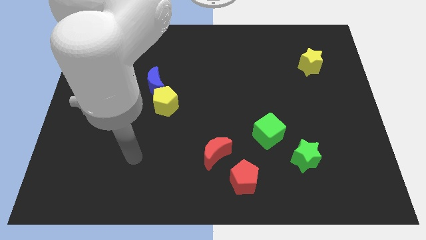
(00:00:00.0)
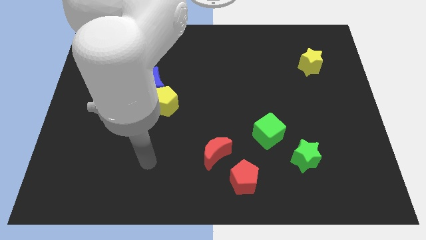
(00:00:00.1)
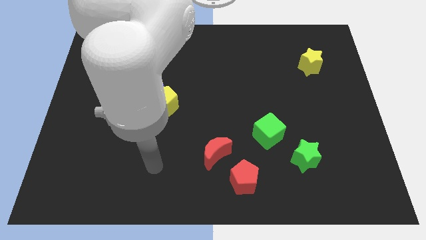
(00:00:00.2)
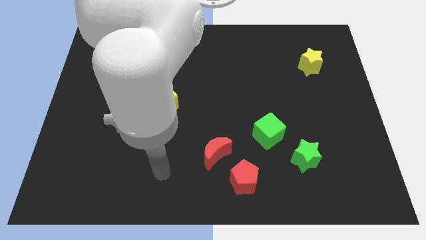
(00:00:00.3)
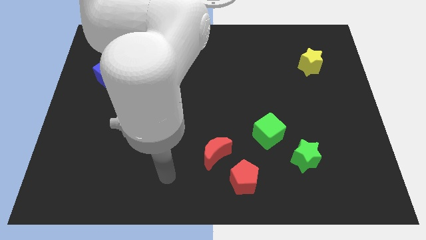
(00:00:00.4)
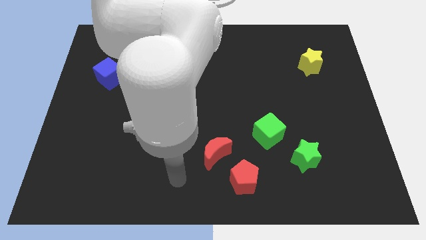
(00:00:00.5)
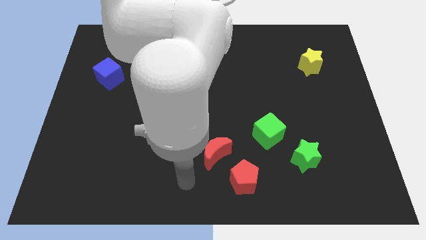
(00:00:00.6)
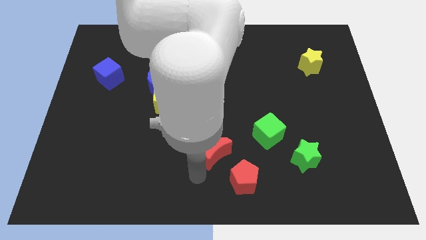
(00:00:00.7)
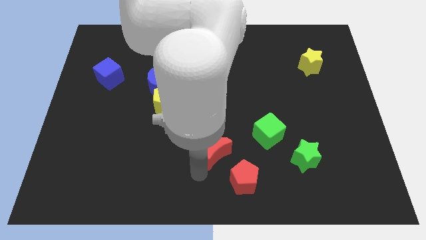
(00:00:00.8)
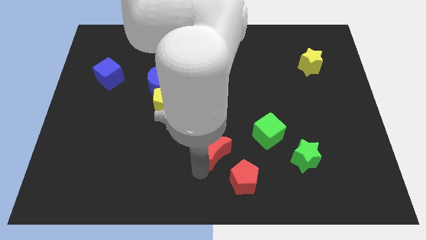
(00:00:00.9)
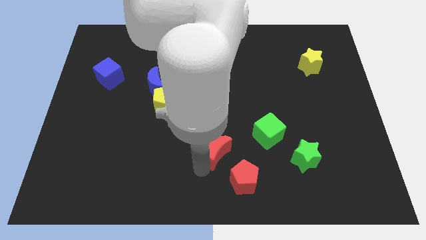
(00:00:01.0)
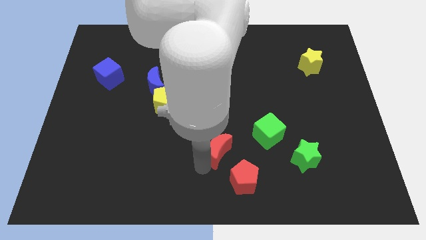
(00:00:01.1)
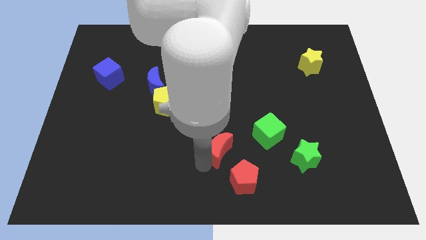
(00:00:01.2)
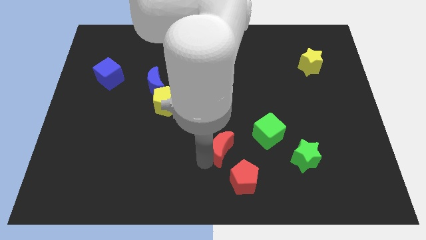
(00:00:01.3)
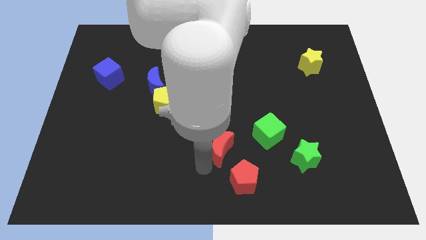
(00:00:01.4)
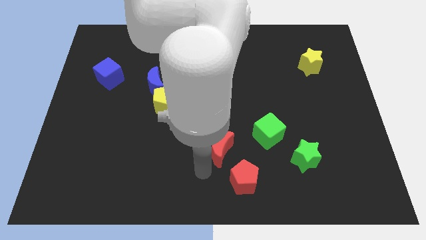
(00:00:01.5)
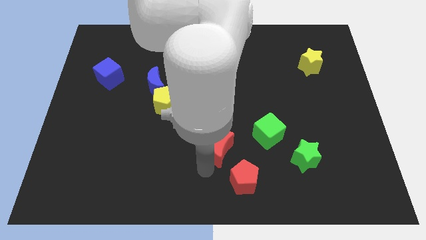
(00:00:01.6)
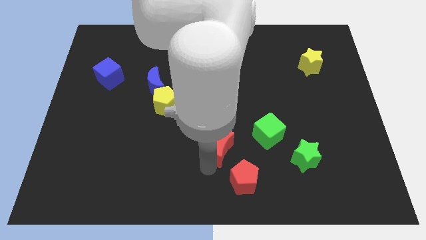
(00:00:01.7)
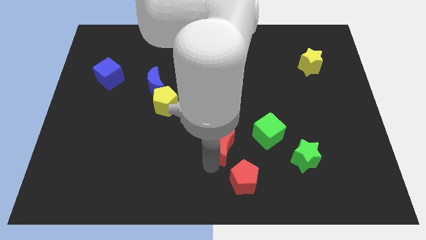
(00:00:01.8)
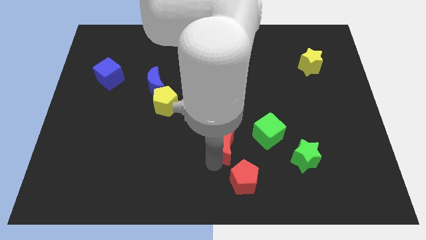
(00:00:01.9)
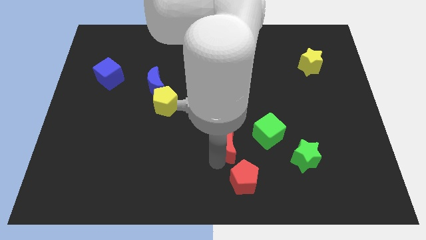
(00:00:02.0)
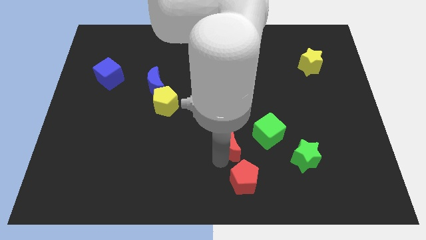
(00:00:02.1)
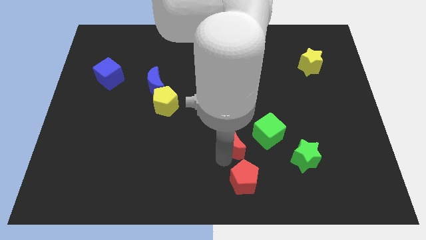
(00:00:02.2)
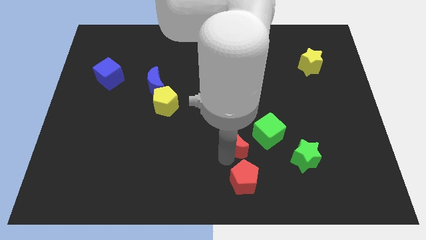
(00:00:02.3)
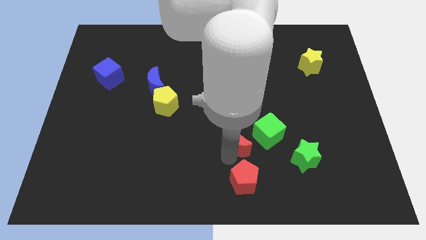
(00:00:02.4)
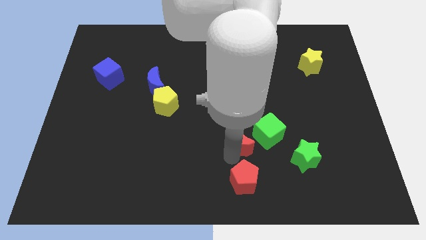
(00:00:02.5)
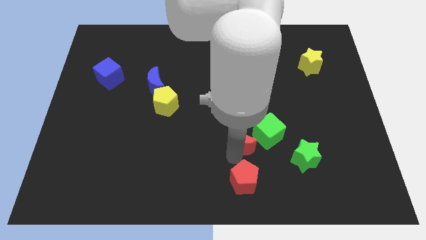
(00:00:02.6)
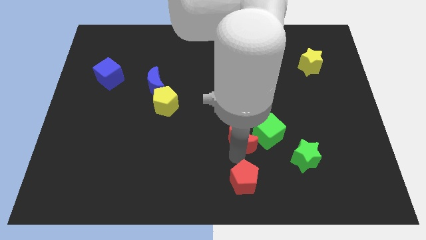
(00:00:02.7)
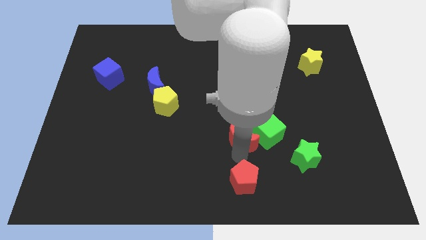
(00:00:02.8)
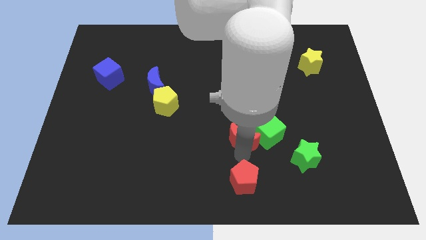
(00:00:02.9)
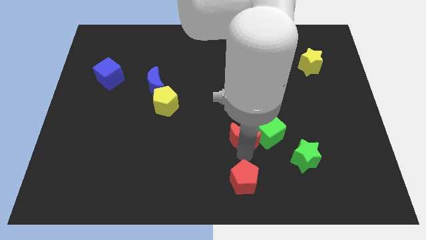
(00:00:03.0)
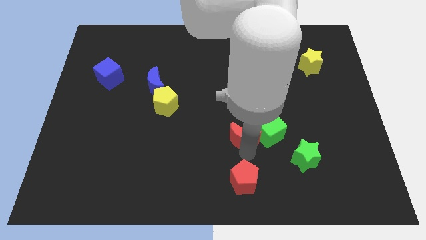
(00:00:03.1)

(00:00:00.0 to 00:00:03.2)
move the red moon upwards and then to the right a little bit

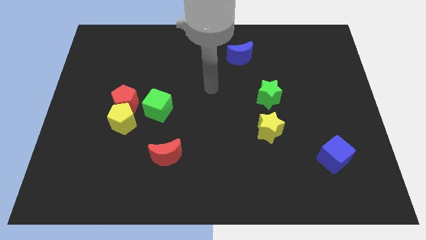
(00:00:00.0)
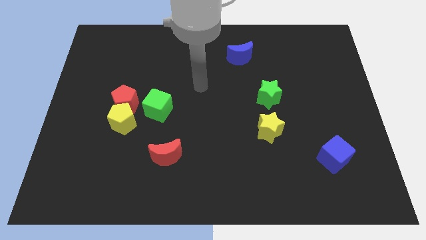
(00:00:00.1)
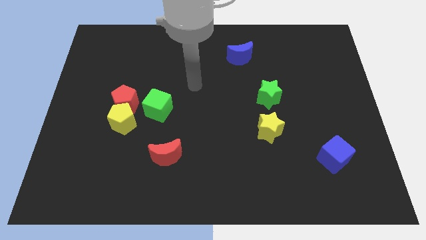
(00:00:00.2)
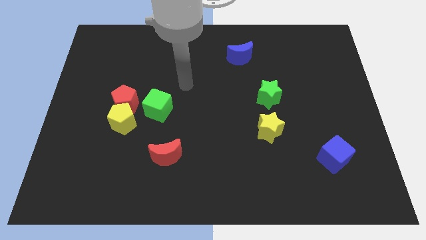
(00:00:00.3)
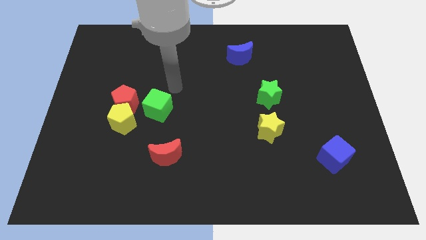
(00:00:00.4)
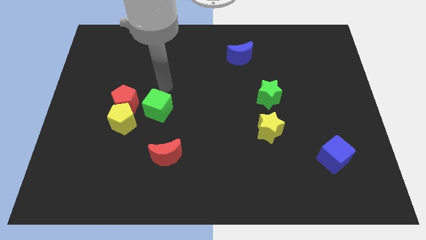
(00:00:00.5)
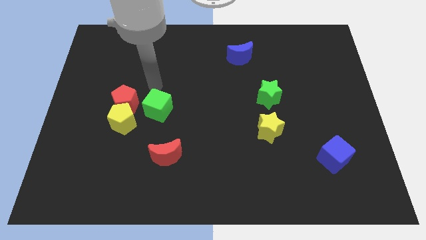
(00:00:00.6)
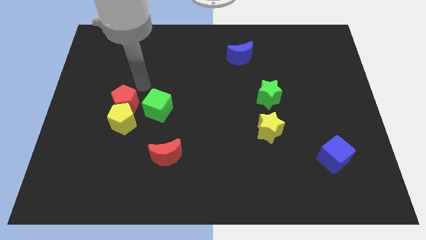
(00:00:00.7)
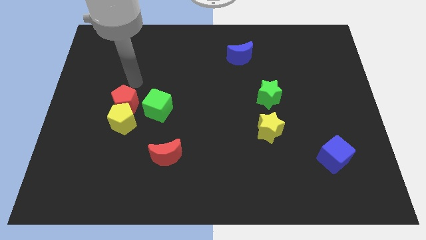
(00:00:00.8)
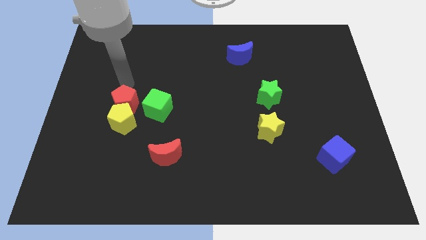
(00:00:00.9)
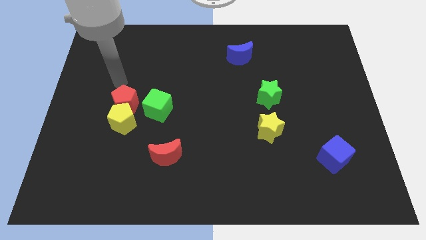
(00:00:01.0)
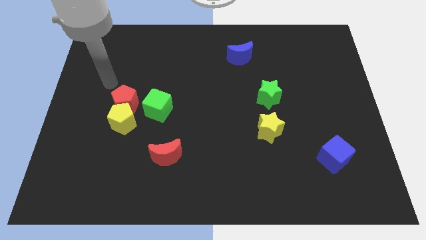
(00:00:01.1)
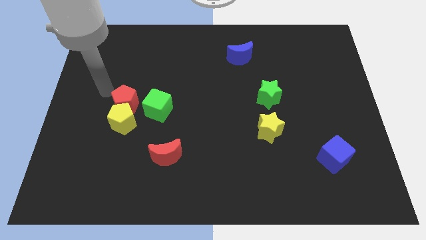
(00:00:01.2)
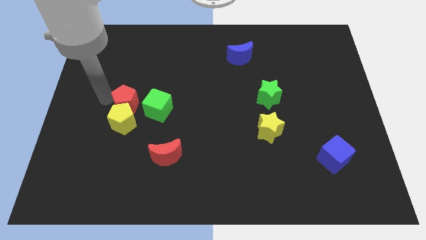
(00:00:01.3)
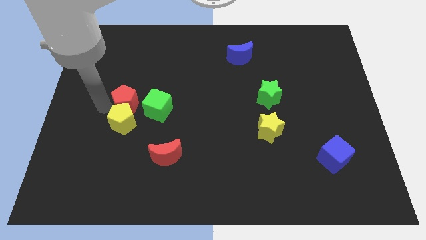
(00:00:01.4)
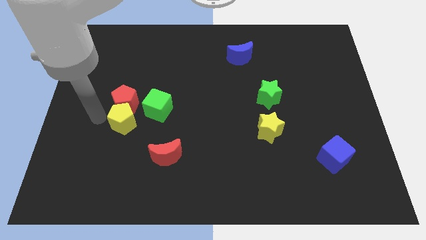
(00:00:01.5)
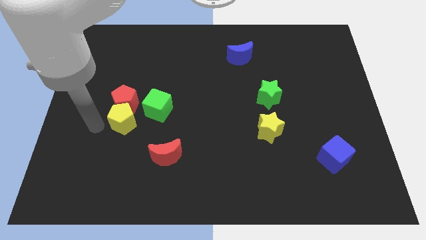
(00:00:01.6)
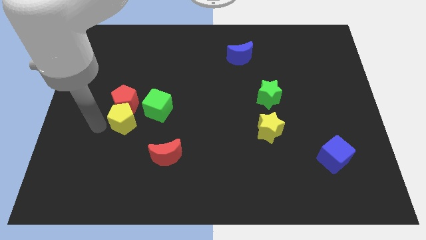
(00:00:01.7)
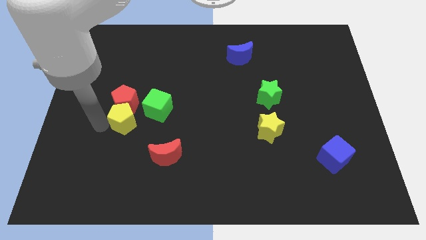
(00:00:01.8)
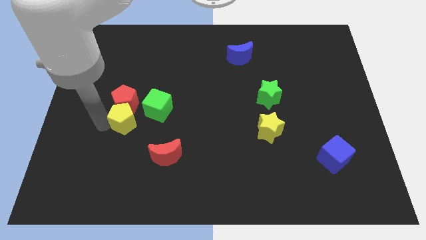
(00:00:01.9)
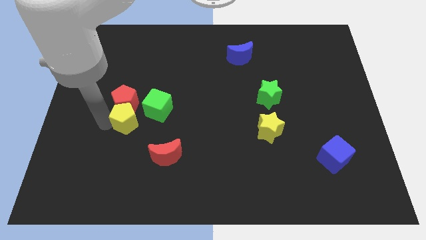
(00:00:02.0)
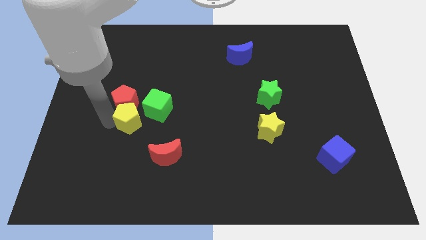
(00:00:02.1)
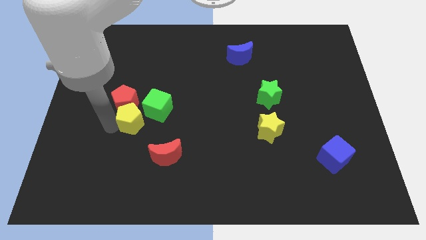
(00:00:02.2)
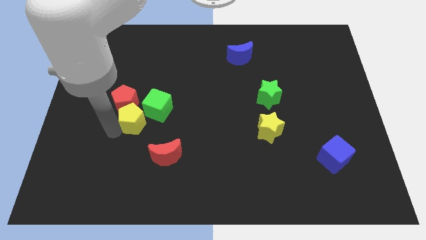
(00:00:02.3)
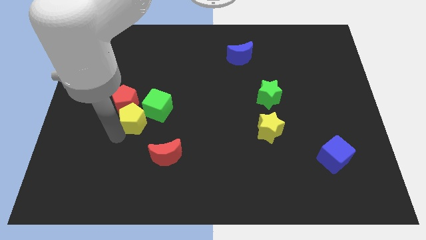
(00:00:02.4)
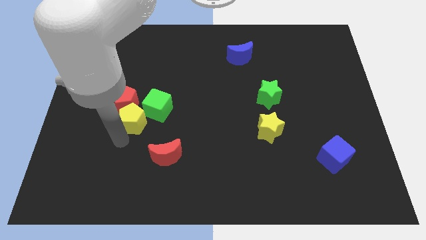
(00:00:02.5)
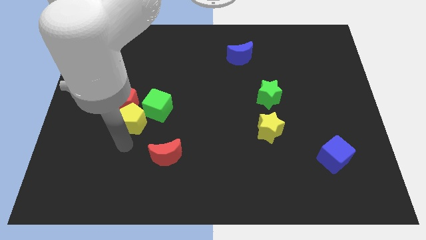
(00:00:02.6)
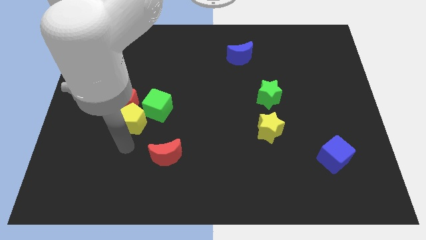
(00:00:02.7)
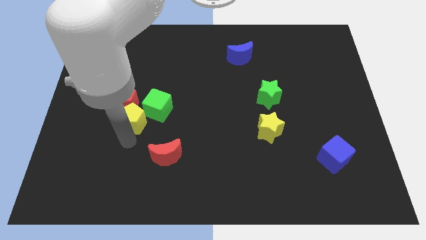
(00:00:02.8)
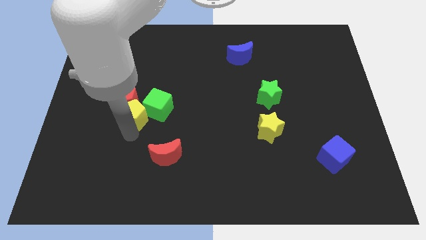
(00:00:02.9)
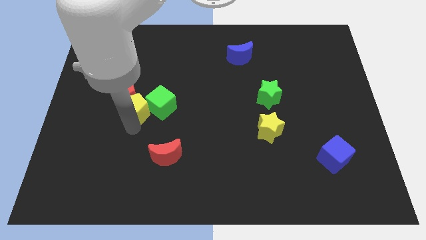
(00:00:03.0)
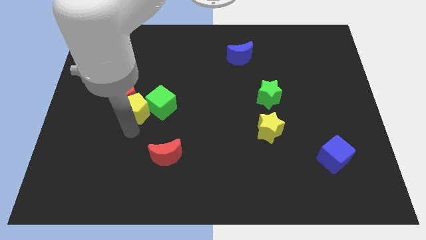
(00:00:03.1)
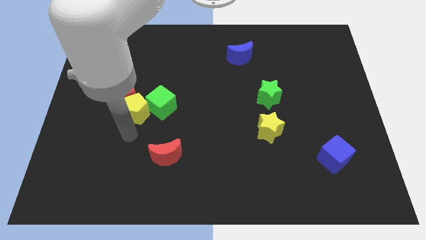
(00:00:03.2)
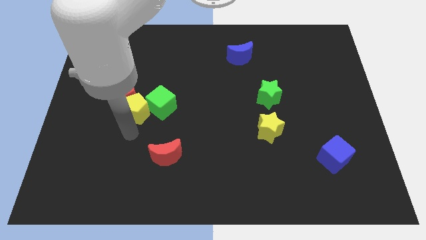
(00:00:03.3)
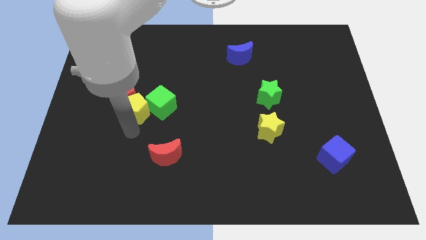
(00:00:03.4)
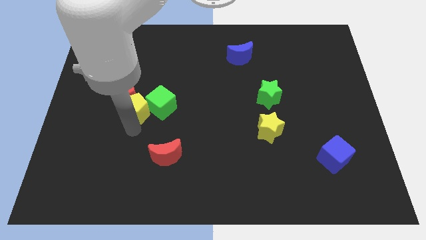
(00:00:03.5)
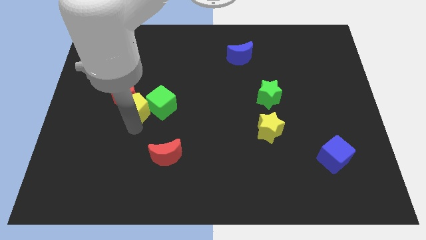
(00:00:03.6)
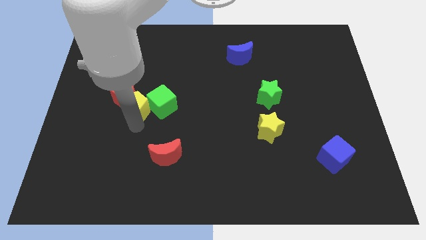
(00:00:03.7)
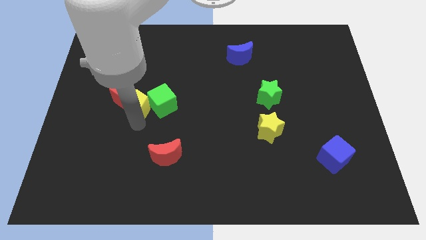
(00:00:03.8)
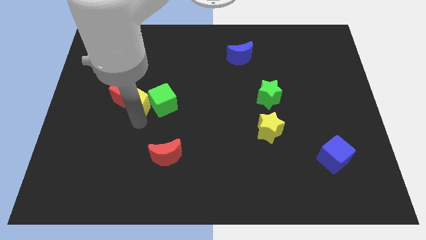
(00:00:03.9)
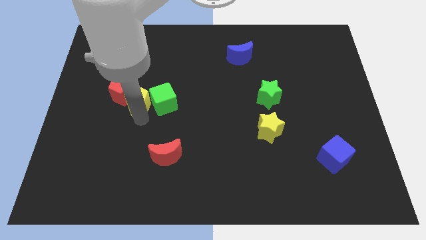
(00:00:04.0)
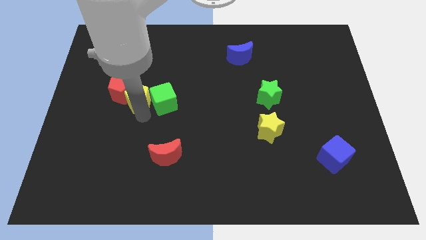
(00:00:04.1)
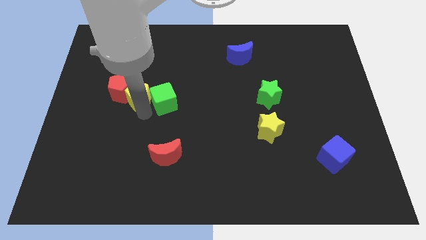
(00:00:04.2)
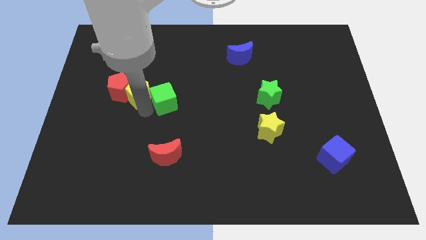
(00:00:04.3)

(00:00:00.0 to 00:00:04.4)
slightly push the yellow pentagon upwards
